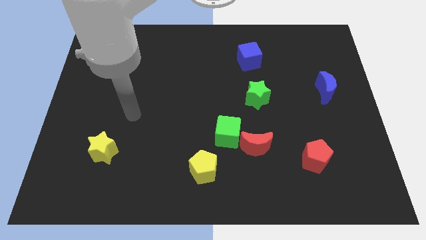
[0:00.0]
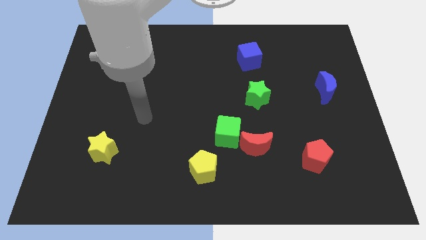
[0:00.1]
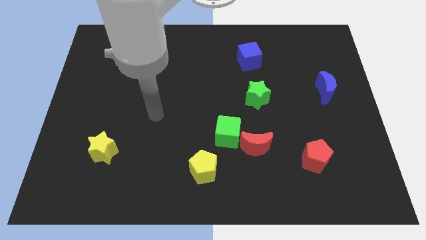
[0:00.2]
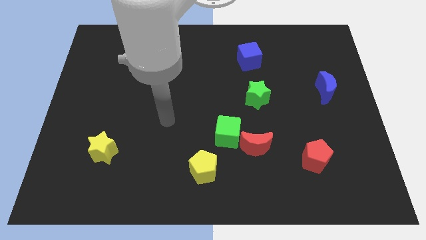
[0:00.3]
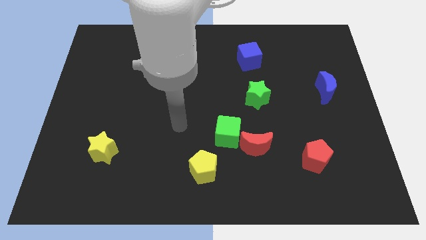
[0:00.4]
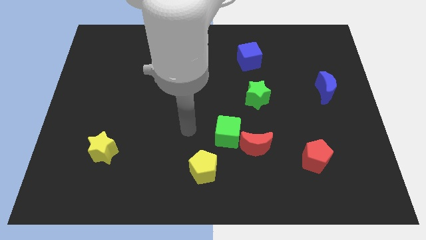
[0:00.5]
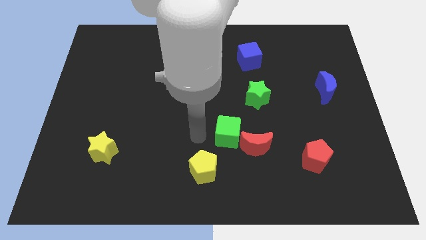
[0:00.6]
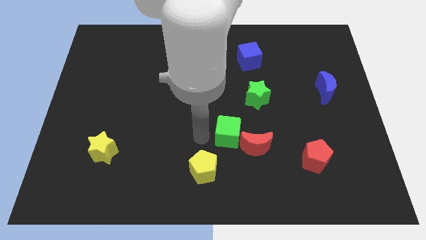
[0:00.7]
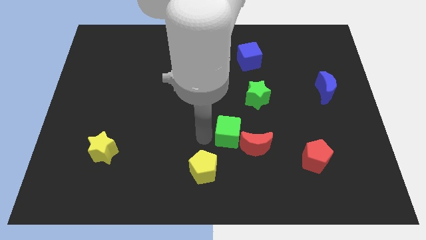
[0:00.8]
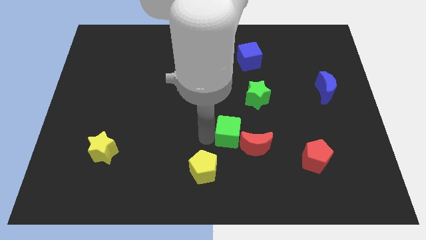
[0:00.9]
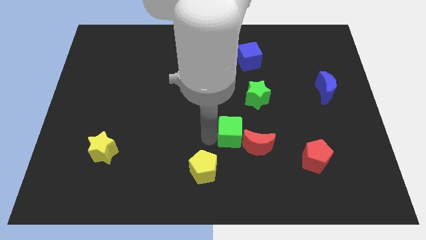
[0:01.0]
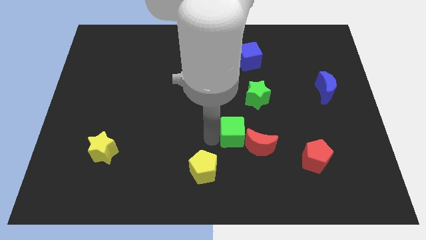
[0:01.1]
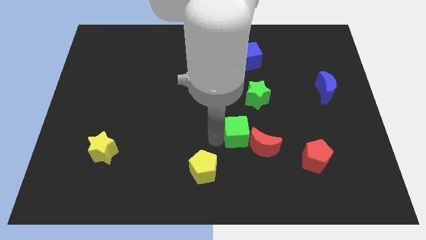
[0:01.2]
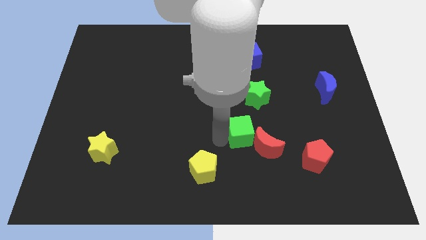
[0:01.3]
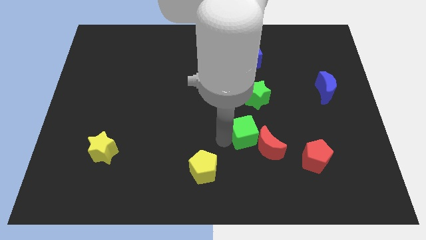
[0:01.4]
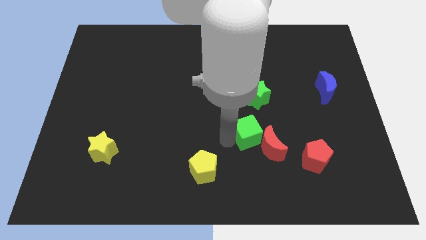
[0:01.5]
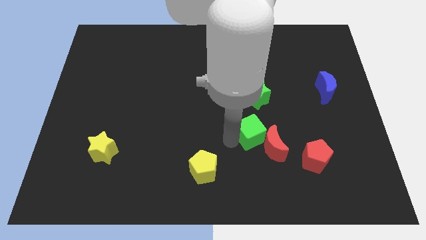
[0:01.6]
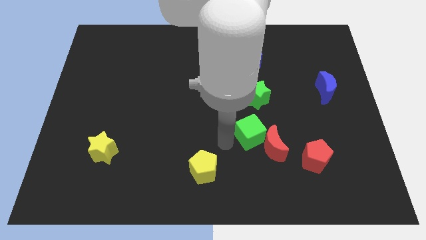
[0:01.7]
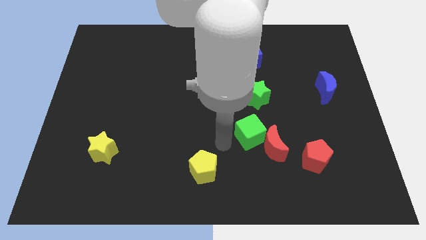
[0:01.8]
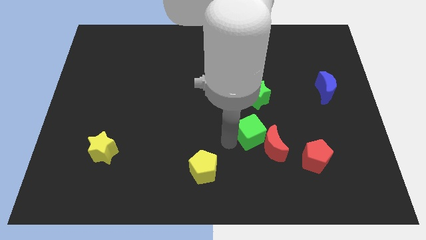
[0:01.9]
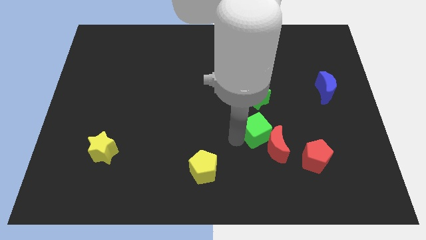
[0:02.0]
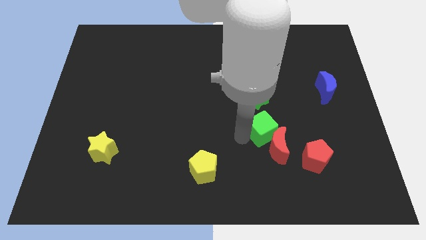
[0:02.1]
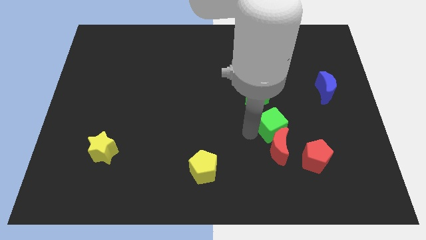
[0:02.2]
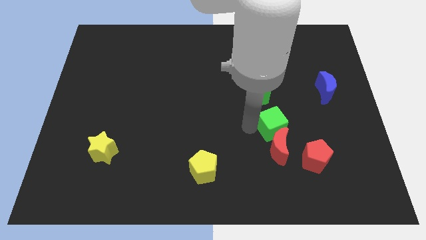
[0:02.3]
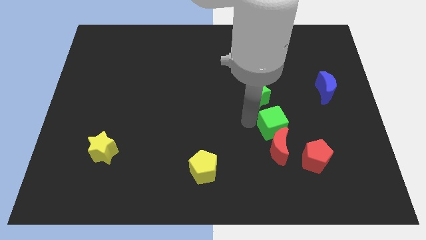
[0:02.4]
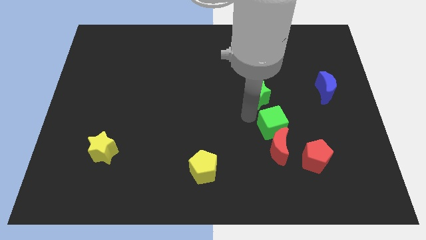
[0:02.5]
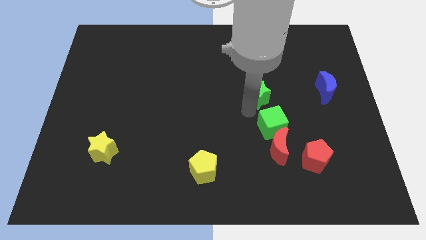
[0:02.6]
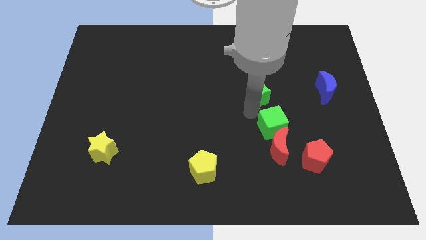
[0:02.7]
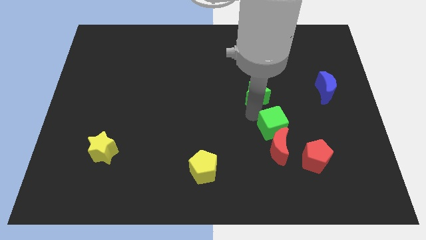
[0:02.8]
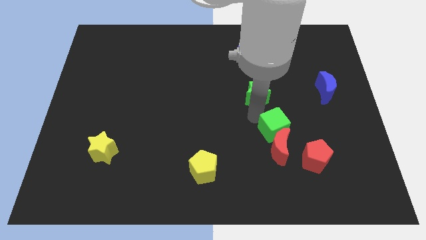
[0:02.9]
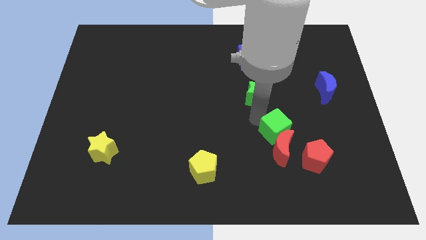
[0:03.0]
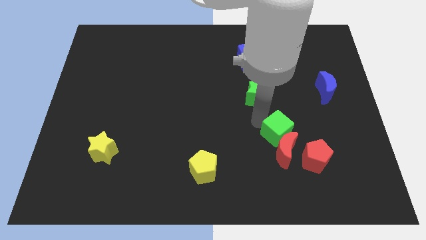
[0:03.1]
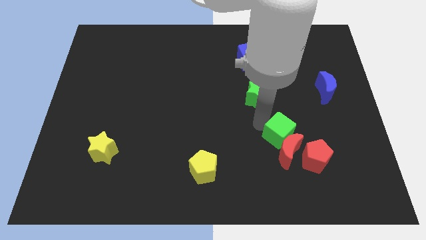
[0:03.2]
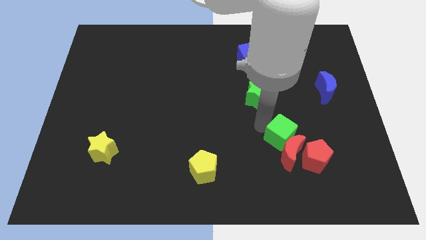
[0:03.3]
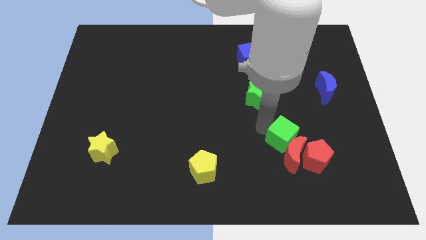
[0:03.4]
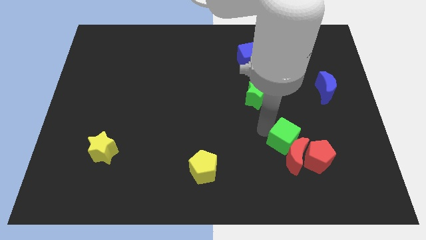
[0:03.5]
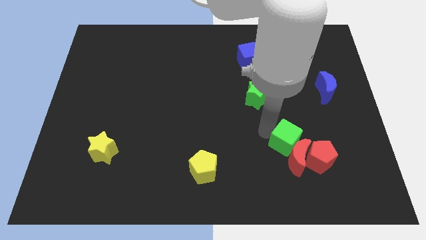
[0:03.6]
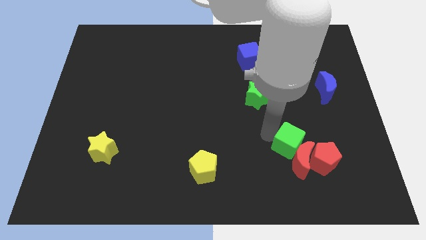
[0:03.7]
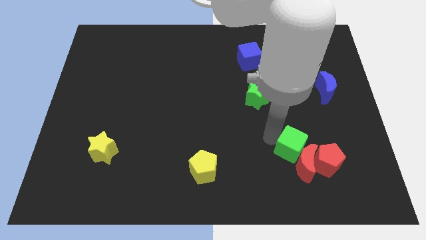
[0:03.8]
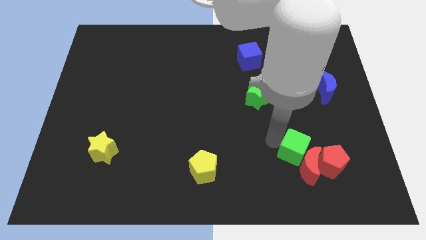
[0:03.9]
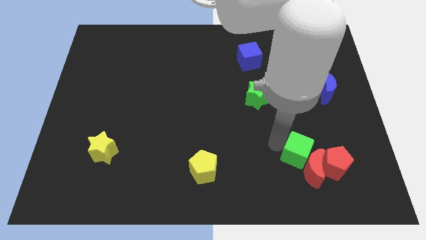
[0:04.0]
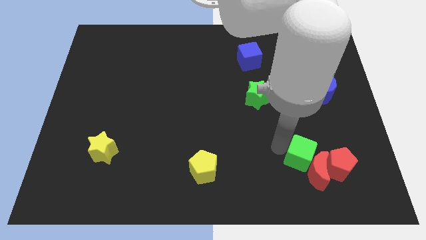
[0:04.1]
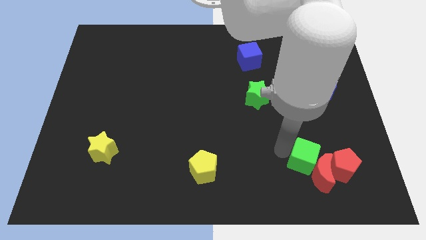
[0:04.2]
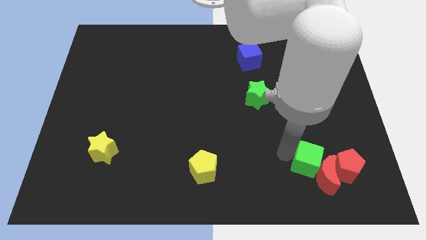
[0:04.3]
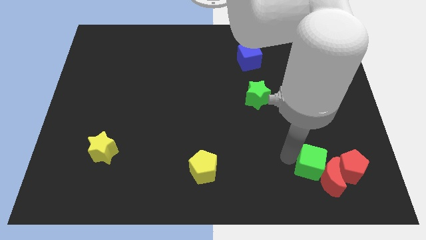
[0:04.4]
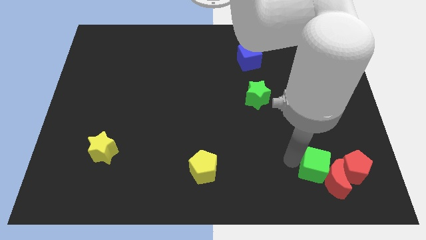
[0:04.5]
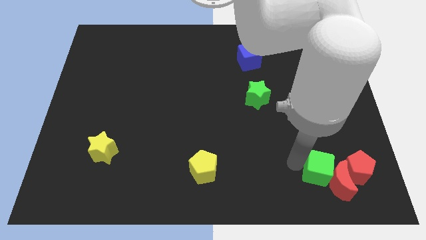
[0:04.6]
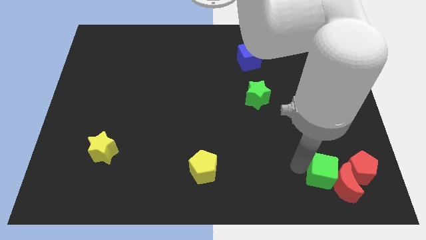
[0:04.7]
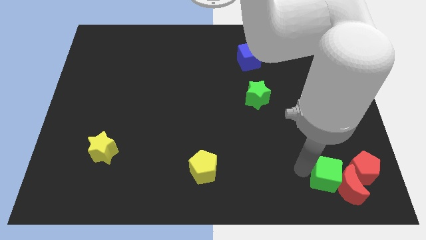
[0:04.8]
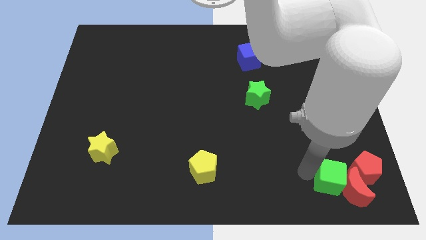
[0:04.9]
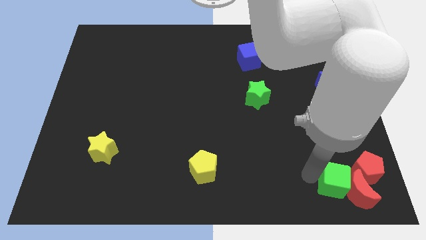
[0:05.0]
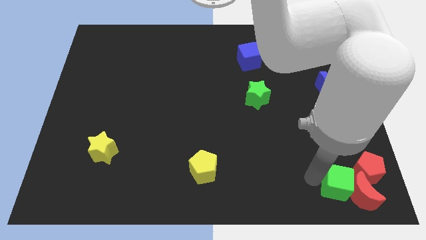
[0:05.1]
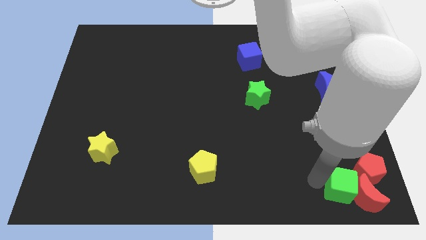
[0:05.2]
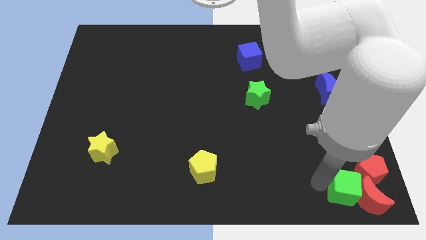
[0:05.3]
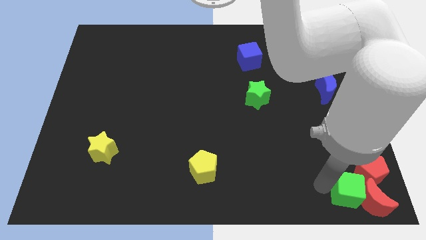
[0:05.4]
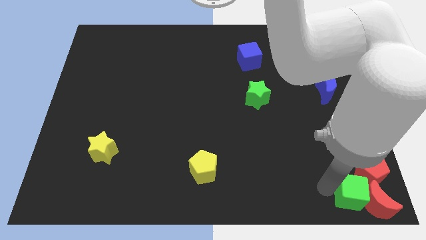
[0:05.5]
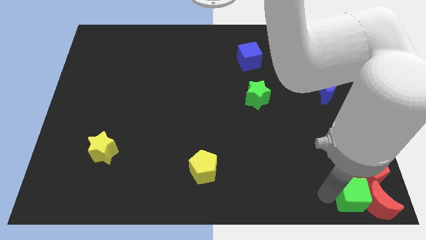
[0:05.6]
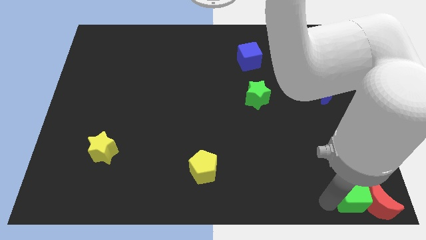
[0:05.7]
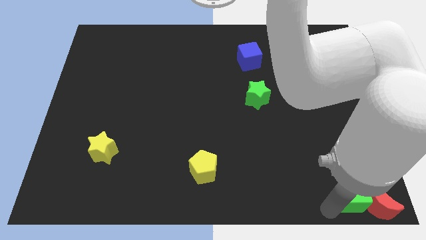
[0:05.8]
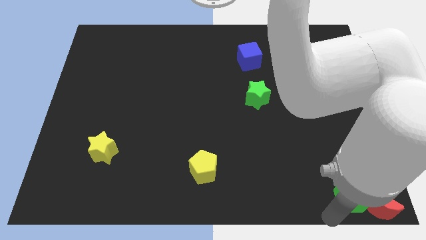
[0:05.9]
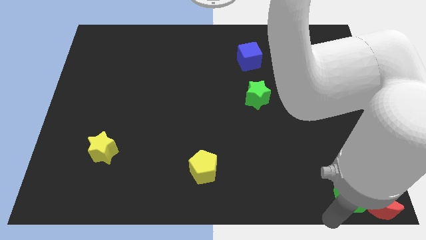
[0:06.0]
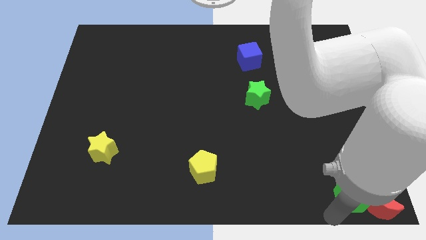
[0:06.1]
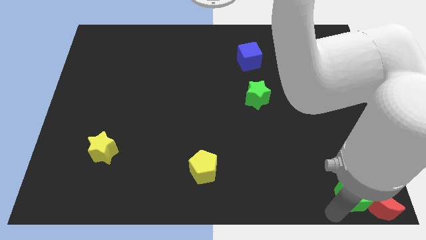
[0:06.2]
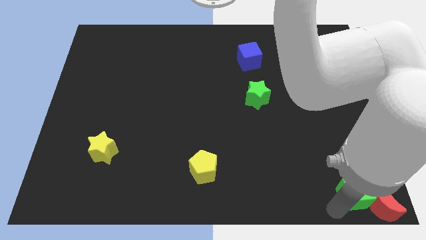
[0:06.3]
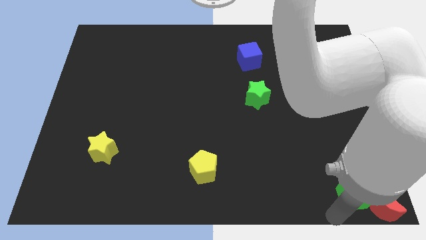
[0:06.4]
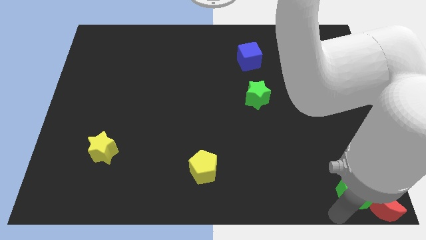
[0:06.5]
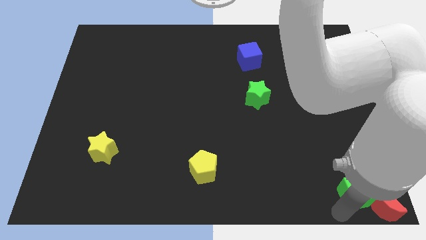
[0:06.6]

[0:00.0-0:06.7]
move the green cube towards the red pentagon

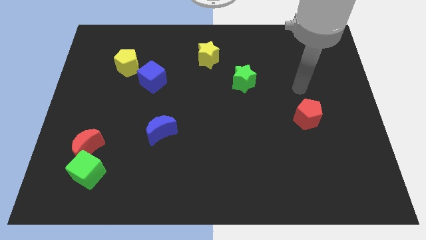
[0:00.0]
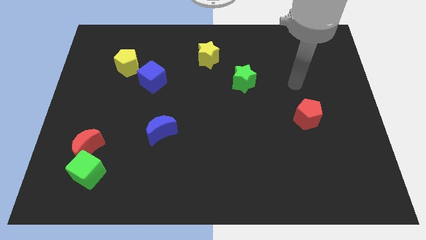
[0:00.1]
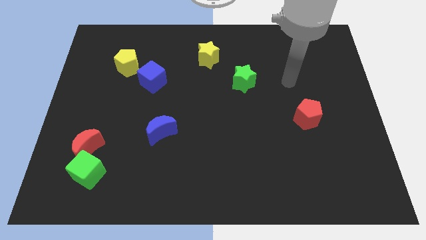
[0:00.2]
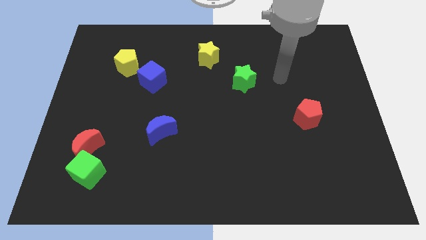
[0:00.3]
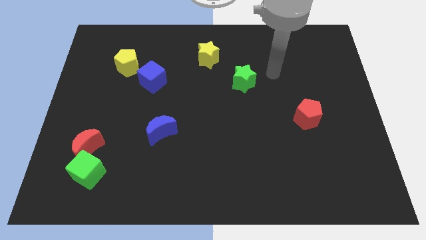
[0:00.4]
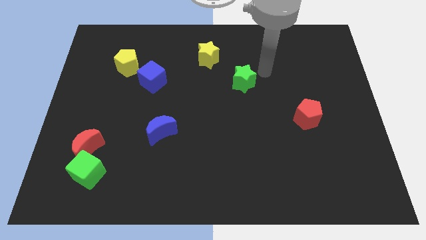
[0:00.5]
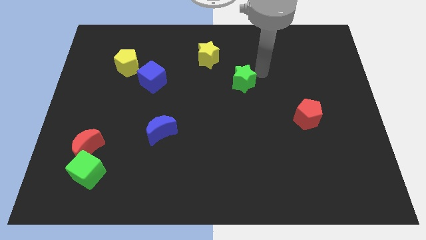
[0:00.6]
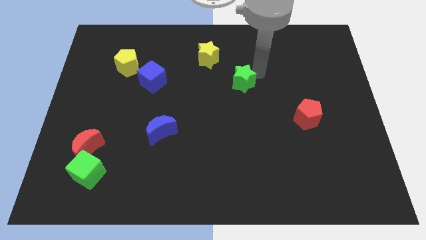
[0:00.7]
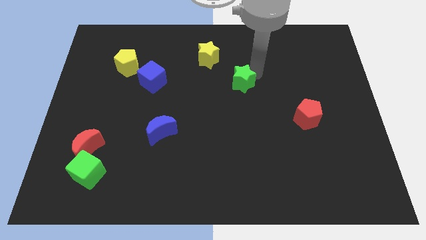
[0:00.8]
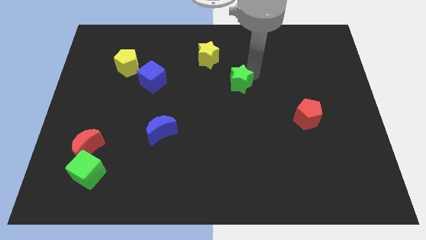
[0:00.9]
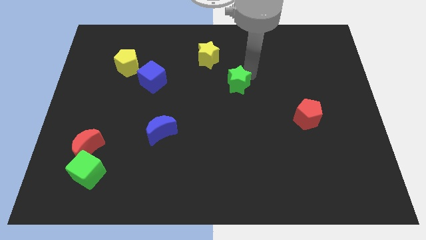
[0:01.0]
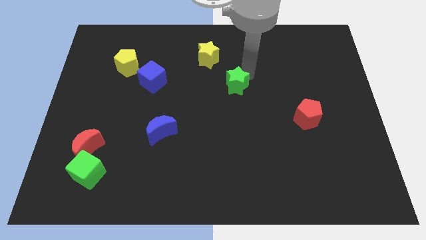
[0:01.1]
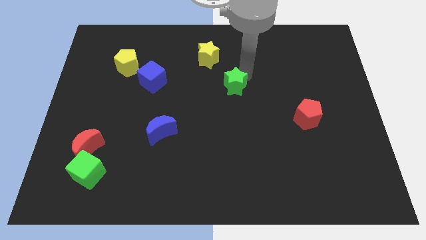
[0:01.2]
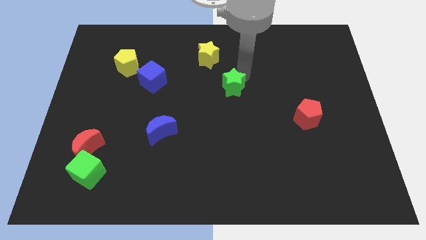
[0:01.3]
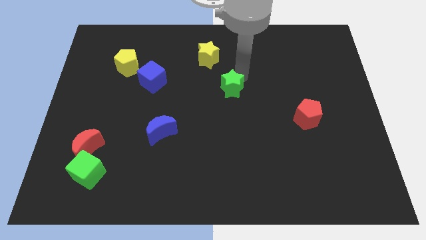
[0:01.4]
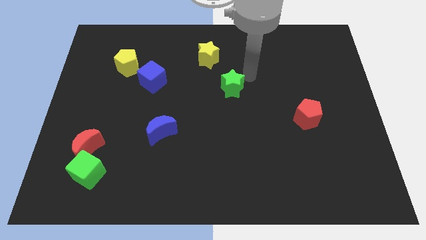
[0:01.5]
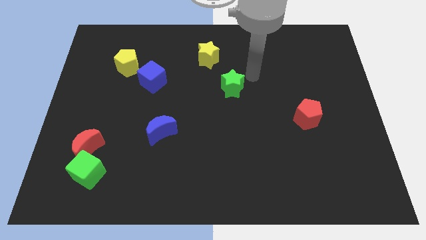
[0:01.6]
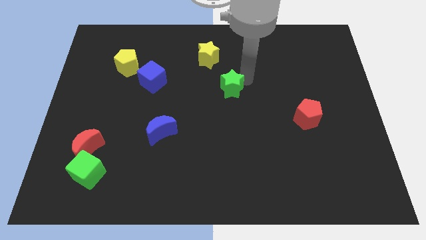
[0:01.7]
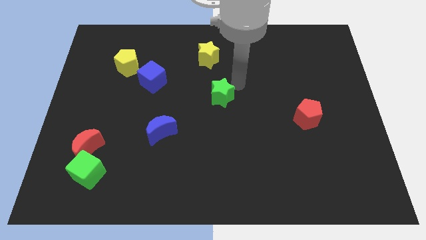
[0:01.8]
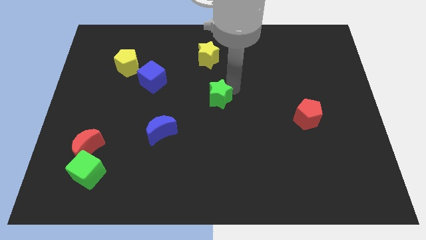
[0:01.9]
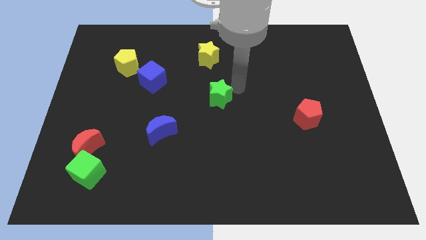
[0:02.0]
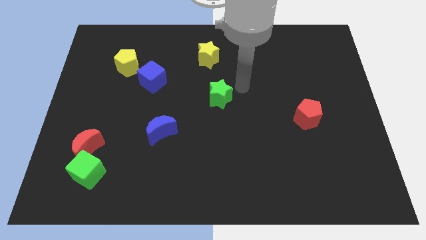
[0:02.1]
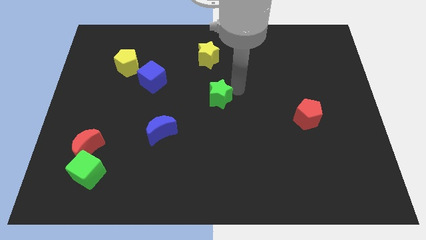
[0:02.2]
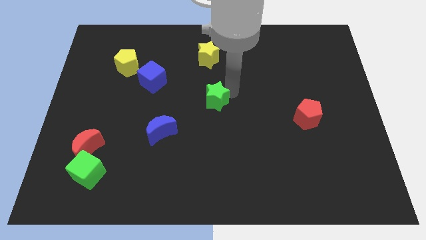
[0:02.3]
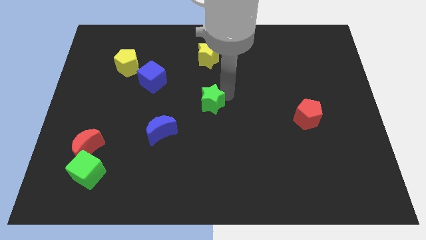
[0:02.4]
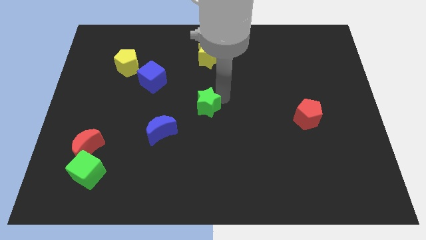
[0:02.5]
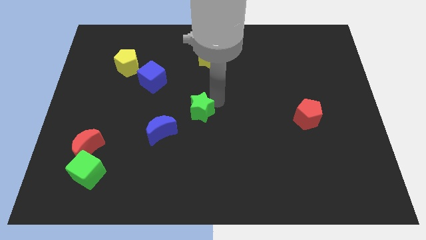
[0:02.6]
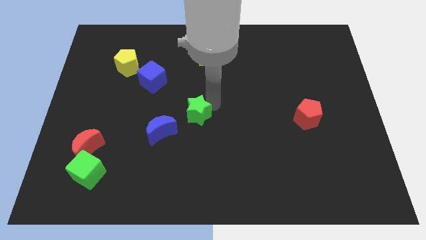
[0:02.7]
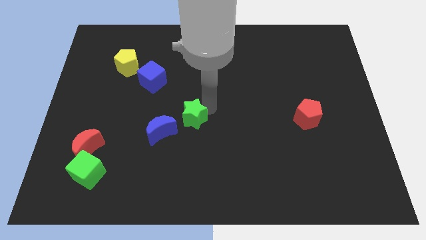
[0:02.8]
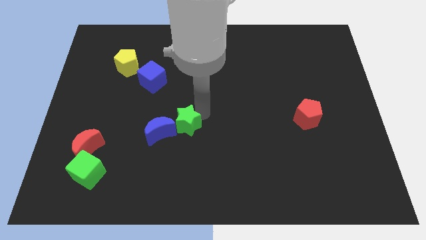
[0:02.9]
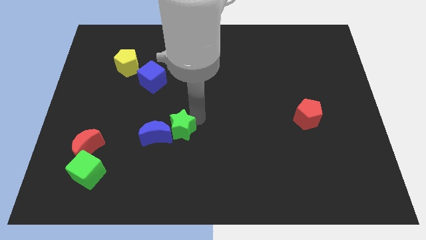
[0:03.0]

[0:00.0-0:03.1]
push the green star next to the blue moon
